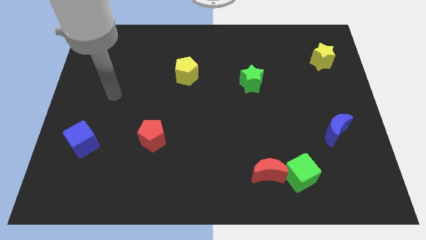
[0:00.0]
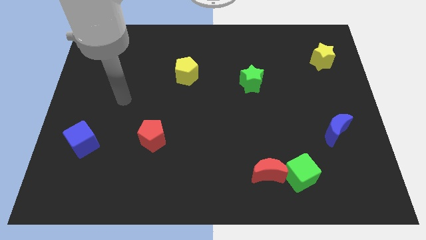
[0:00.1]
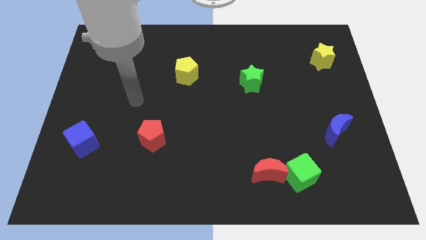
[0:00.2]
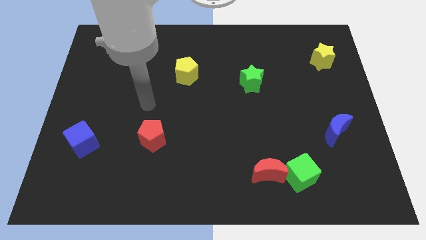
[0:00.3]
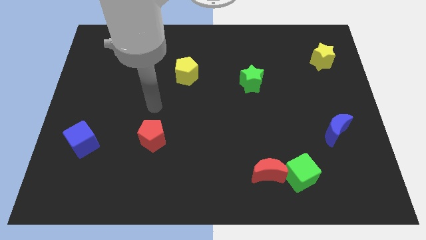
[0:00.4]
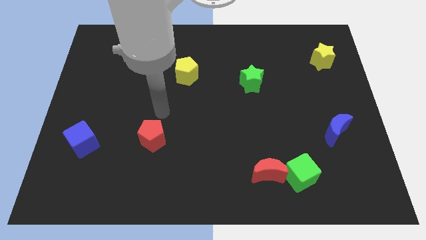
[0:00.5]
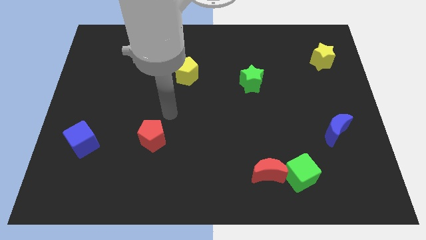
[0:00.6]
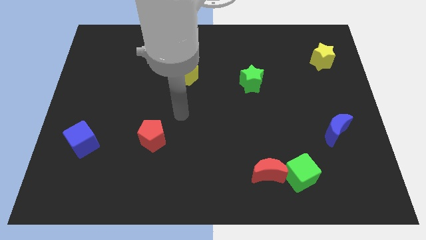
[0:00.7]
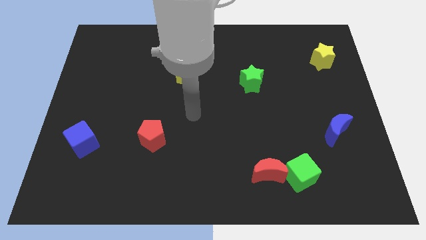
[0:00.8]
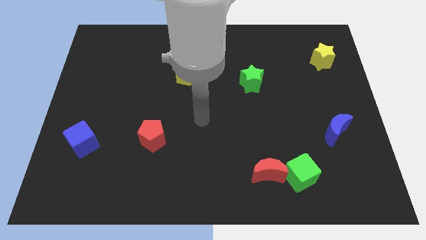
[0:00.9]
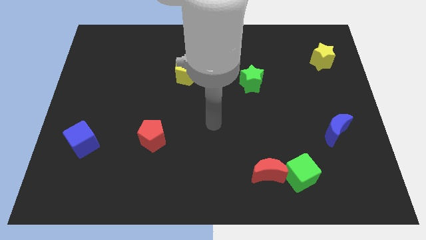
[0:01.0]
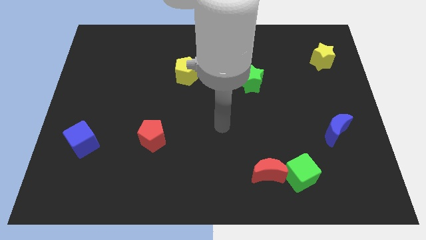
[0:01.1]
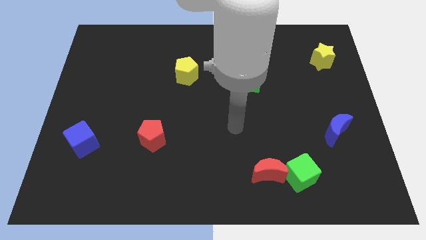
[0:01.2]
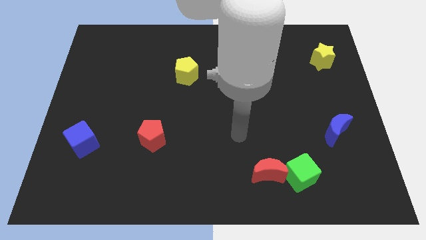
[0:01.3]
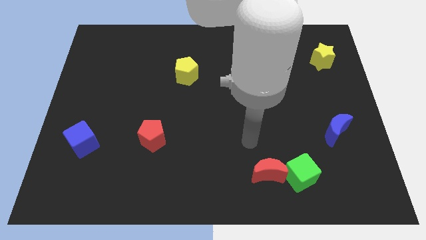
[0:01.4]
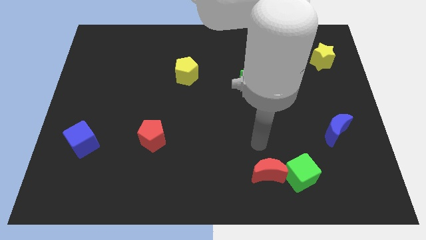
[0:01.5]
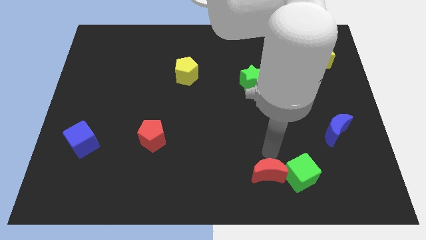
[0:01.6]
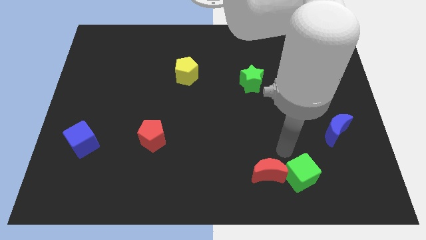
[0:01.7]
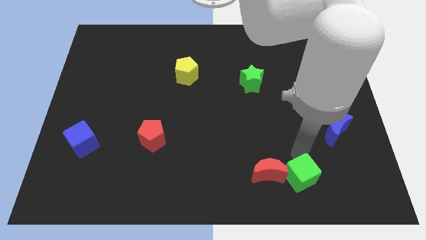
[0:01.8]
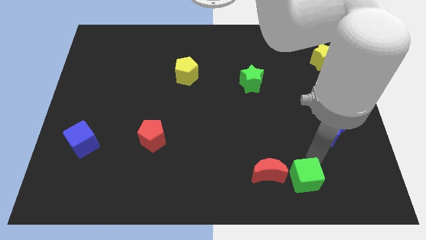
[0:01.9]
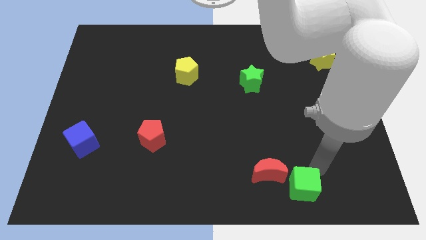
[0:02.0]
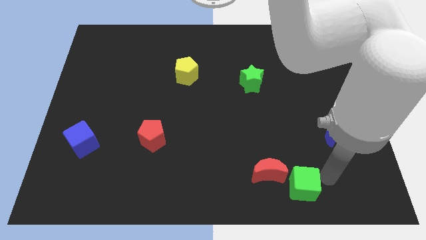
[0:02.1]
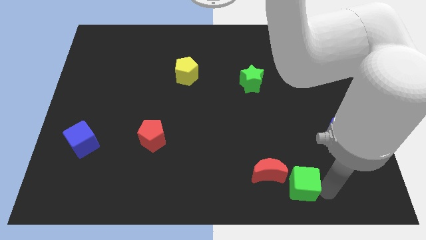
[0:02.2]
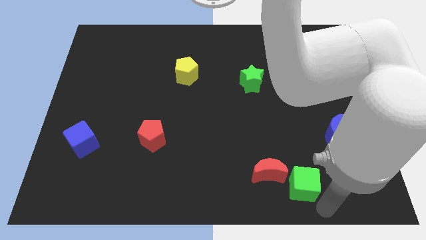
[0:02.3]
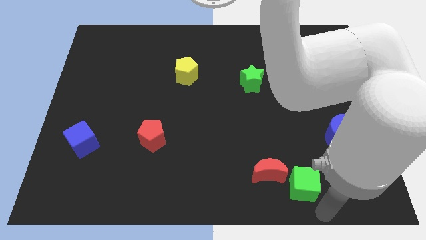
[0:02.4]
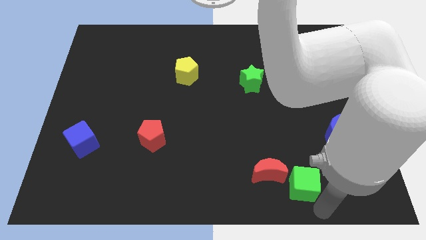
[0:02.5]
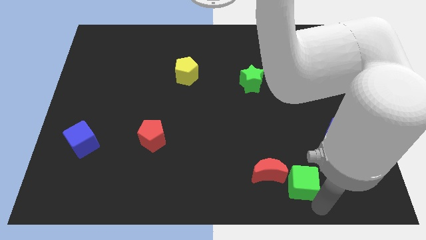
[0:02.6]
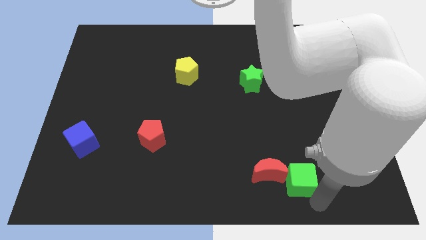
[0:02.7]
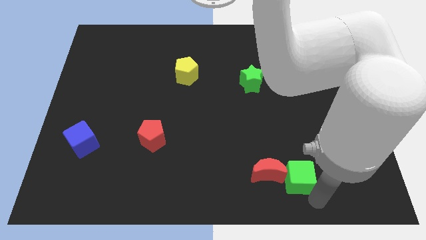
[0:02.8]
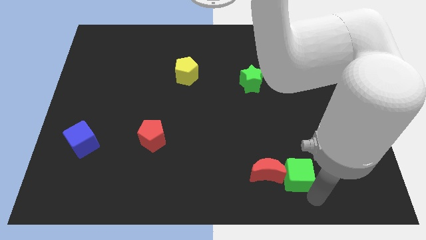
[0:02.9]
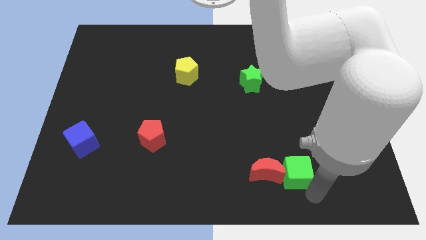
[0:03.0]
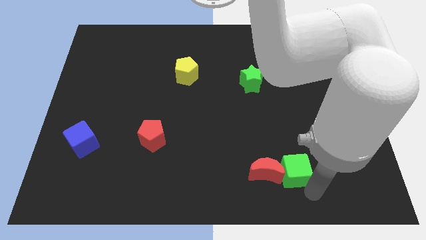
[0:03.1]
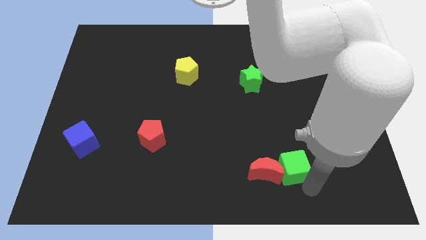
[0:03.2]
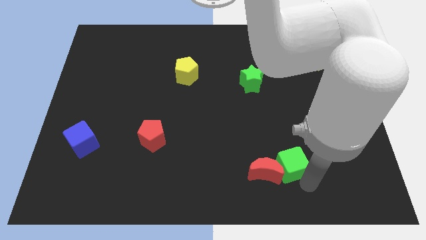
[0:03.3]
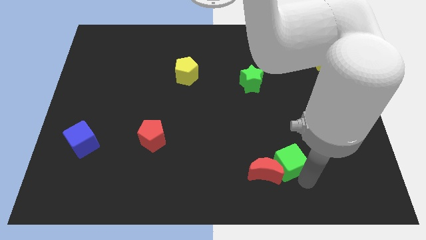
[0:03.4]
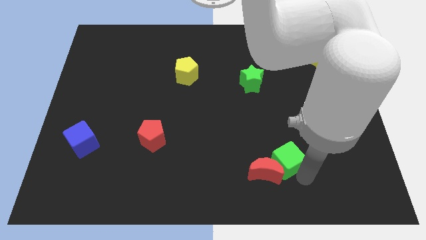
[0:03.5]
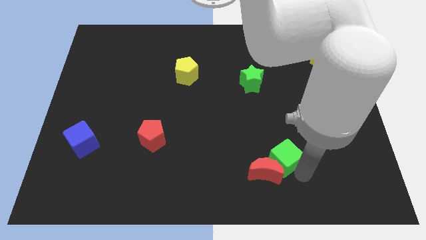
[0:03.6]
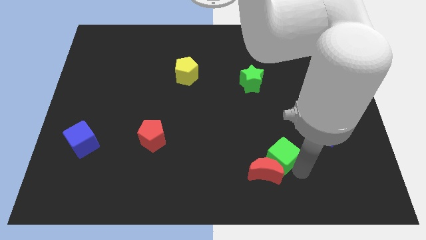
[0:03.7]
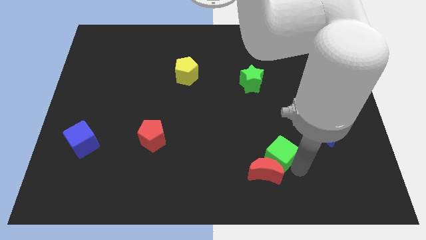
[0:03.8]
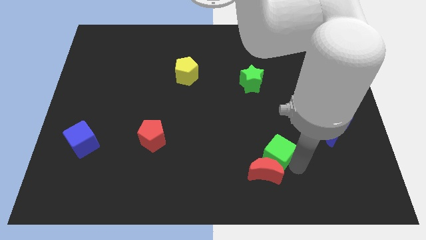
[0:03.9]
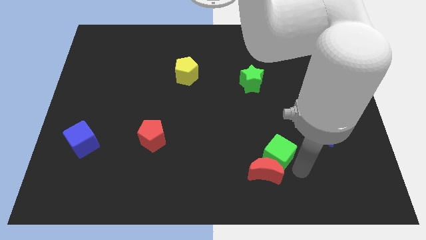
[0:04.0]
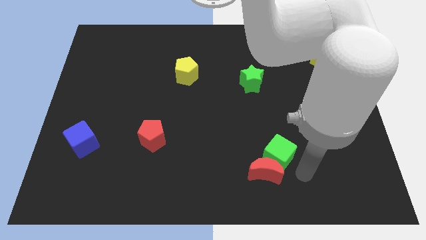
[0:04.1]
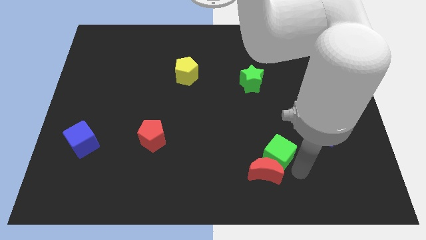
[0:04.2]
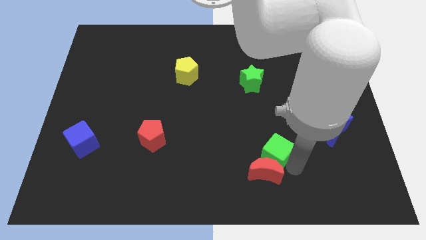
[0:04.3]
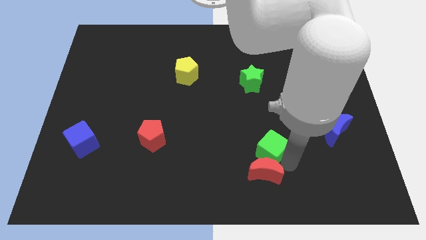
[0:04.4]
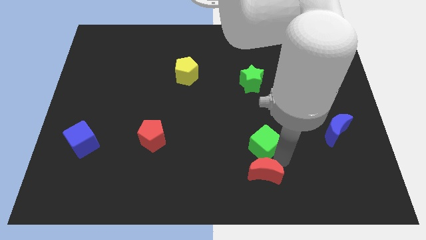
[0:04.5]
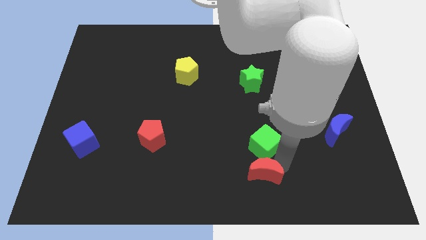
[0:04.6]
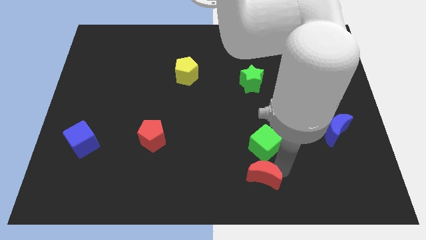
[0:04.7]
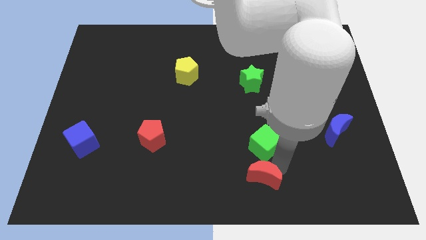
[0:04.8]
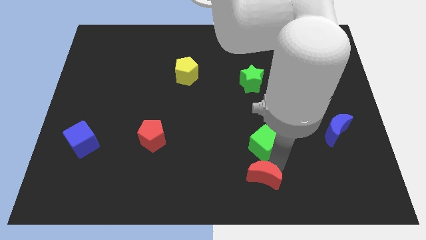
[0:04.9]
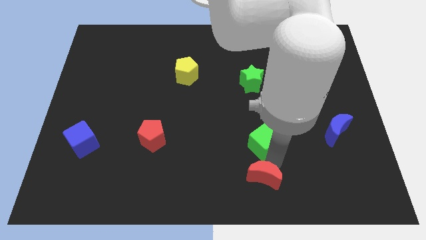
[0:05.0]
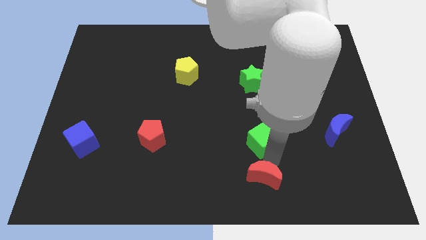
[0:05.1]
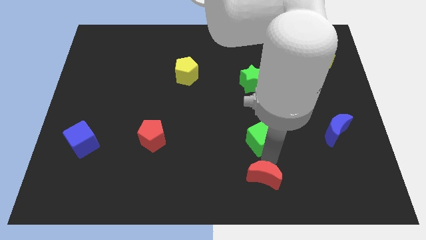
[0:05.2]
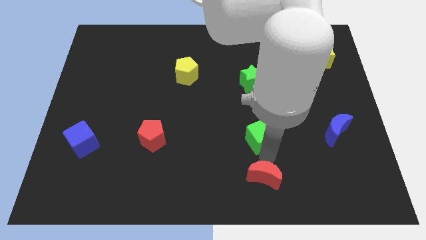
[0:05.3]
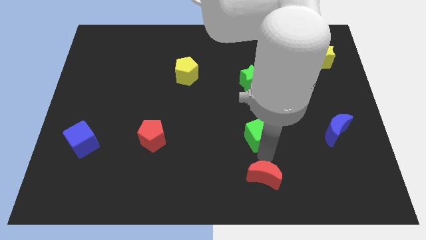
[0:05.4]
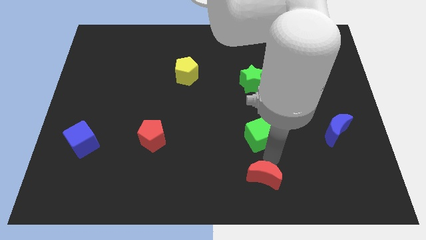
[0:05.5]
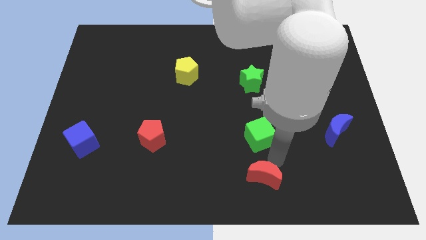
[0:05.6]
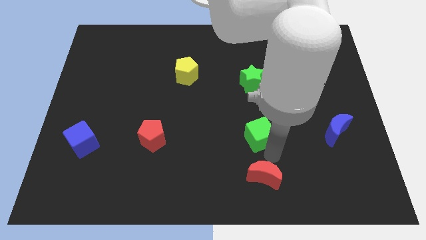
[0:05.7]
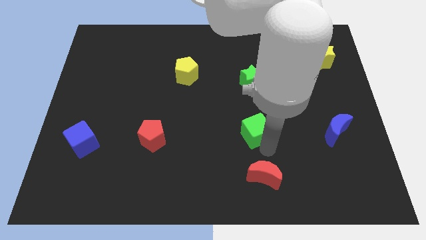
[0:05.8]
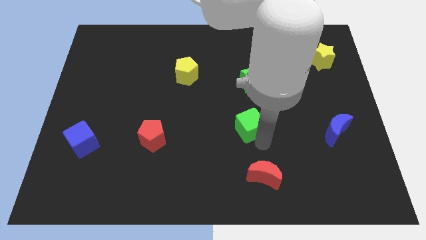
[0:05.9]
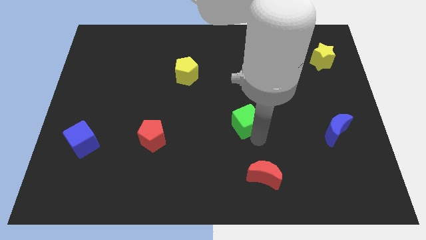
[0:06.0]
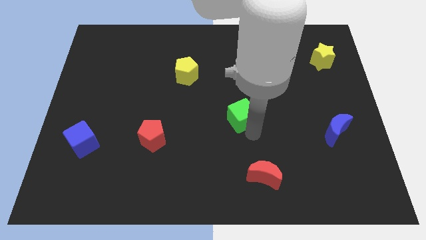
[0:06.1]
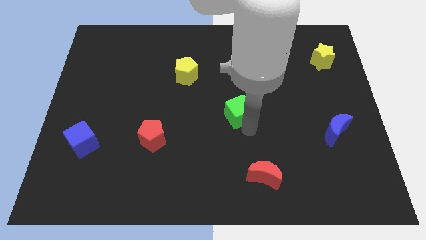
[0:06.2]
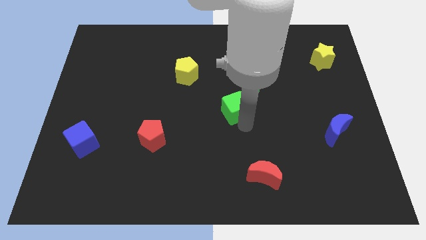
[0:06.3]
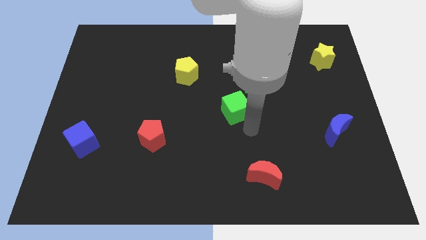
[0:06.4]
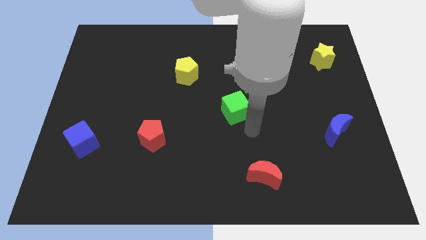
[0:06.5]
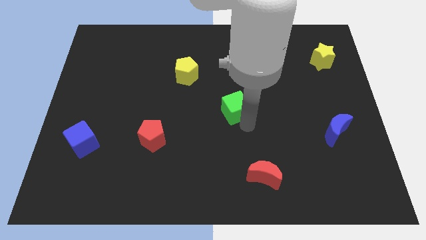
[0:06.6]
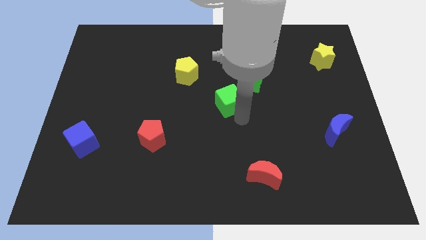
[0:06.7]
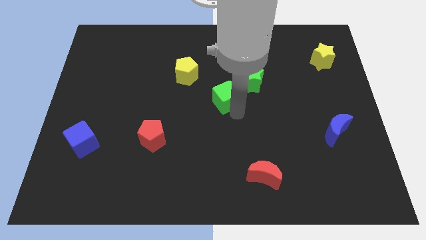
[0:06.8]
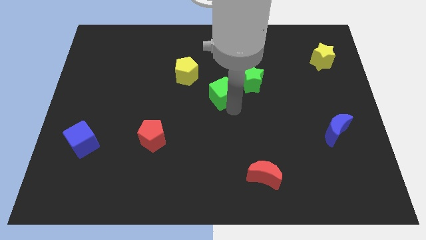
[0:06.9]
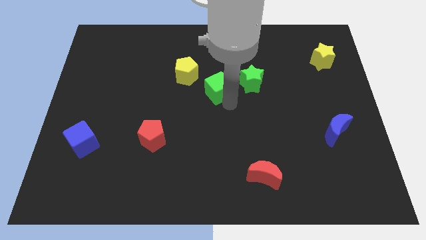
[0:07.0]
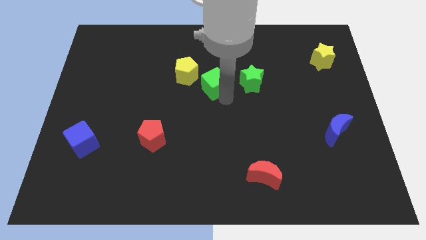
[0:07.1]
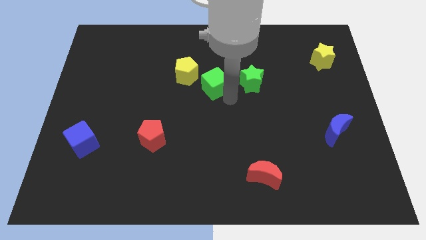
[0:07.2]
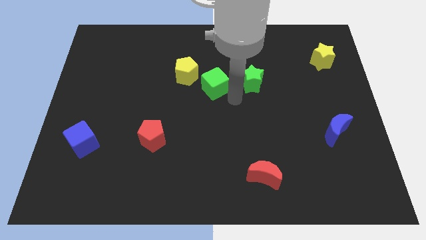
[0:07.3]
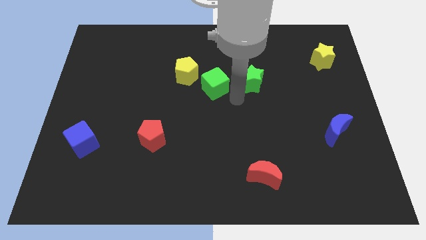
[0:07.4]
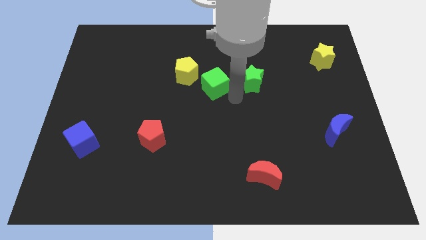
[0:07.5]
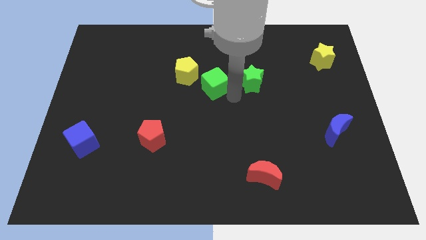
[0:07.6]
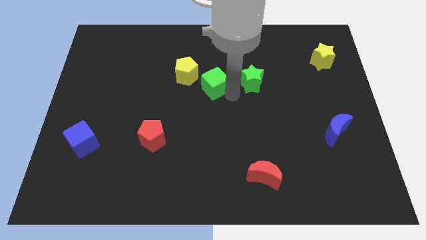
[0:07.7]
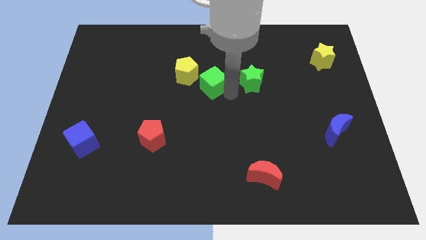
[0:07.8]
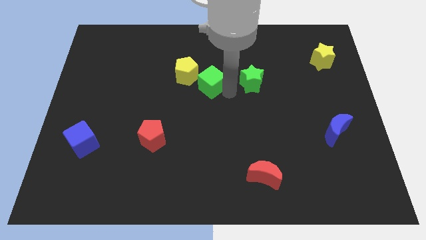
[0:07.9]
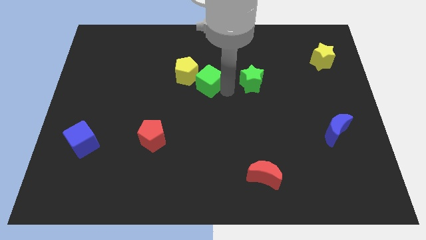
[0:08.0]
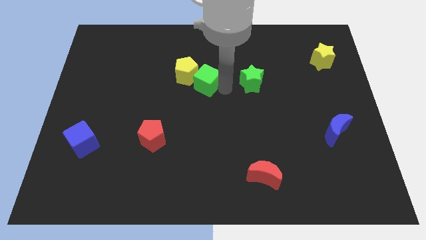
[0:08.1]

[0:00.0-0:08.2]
push the green cube close to the yellow pentagon
